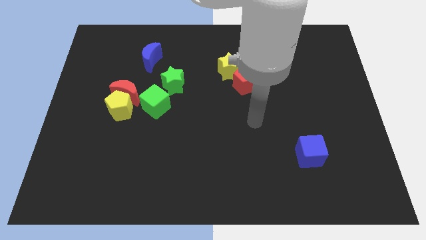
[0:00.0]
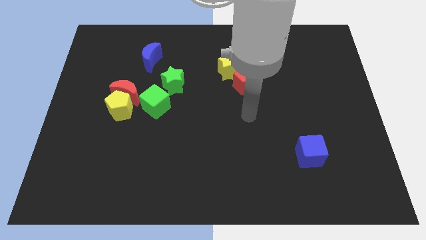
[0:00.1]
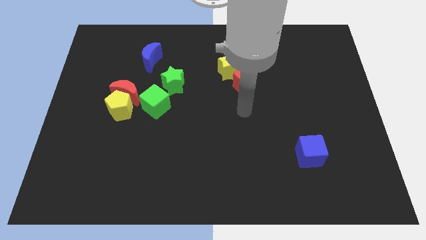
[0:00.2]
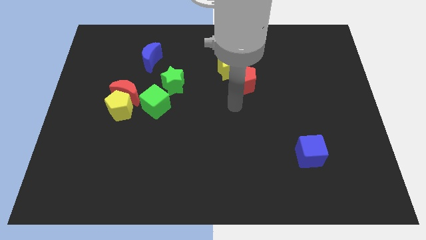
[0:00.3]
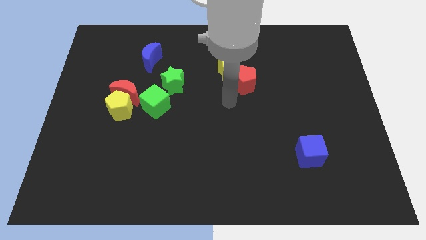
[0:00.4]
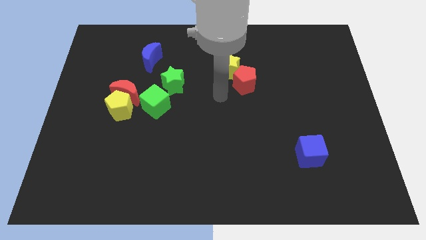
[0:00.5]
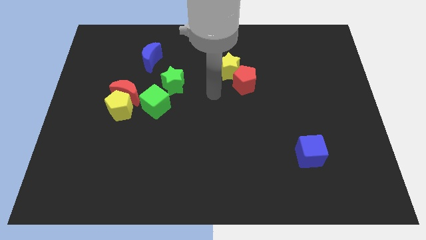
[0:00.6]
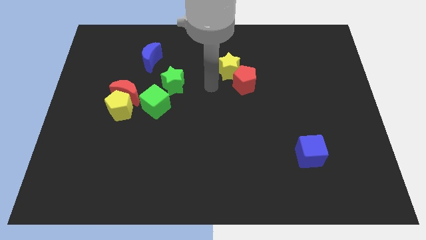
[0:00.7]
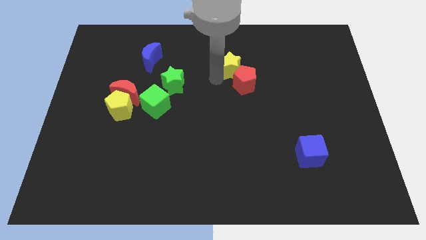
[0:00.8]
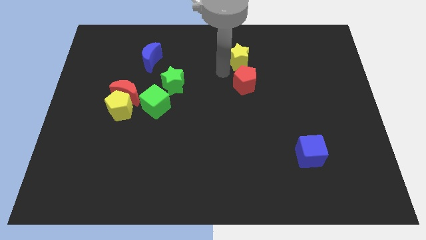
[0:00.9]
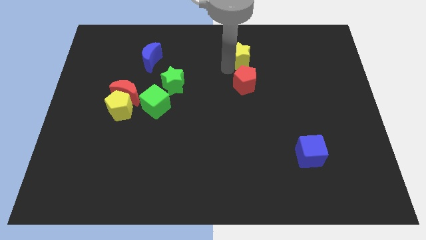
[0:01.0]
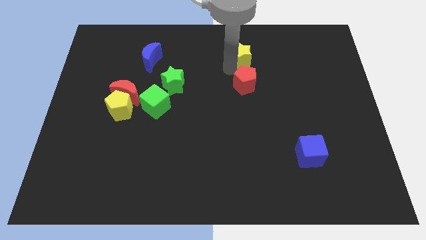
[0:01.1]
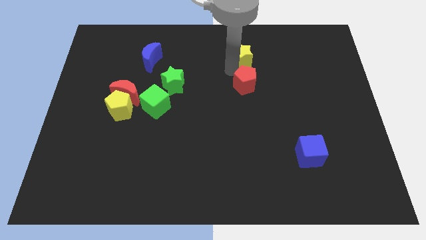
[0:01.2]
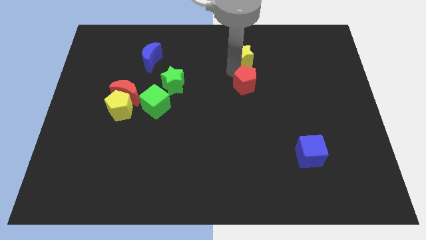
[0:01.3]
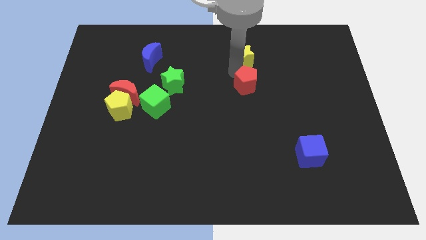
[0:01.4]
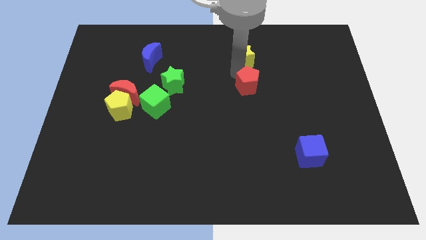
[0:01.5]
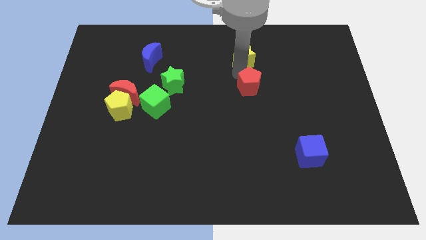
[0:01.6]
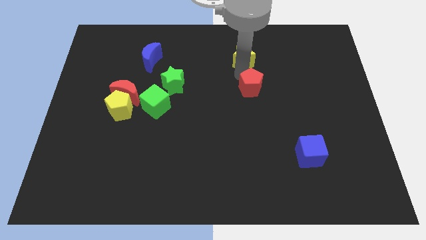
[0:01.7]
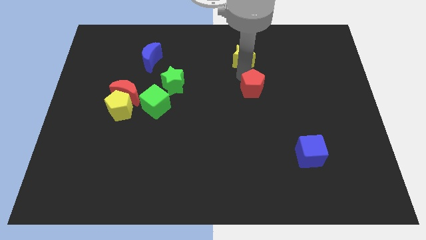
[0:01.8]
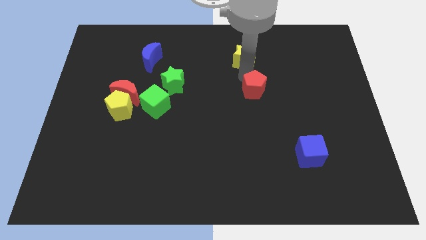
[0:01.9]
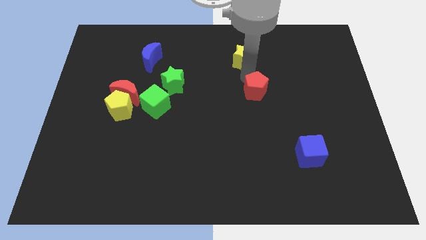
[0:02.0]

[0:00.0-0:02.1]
separate the red pentagon from the yellow star

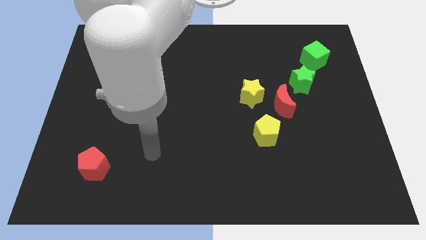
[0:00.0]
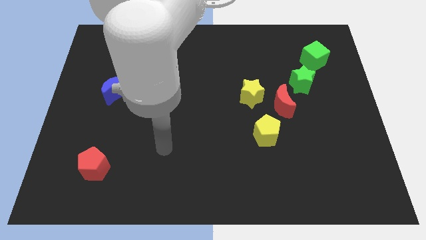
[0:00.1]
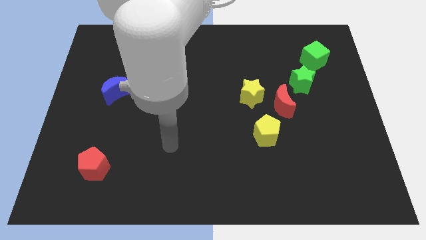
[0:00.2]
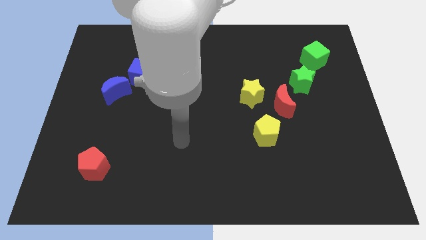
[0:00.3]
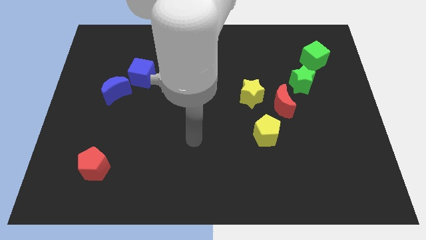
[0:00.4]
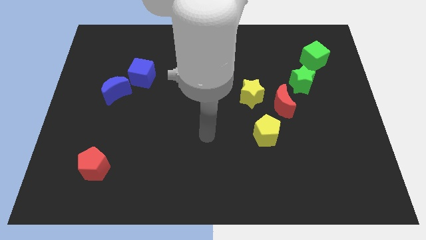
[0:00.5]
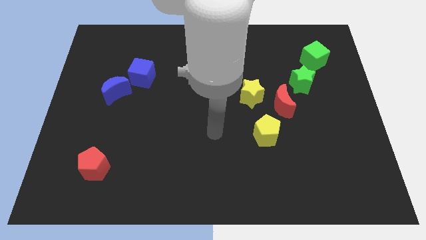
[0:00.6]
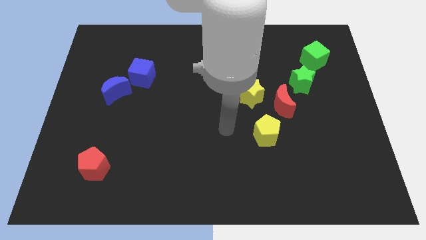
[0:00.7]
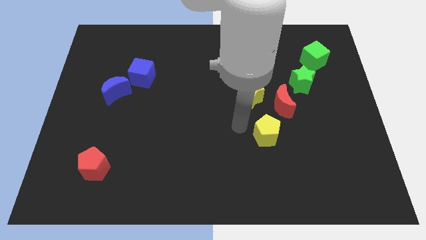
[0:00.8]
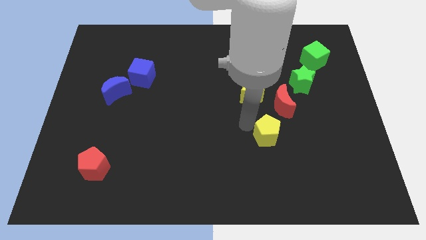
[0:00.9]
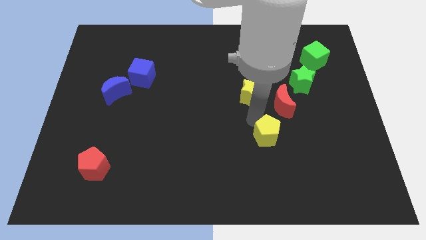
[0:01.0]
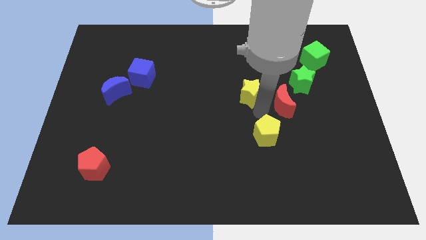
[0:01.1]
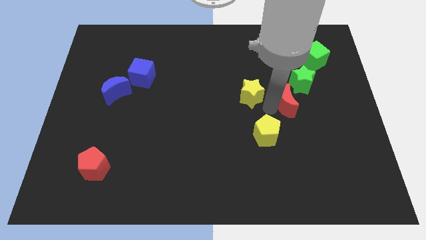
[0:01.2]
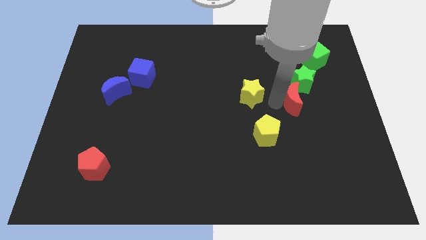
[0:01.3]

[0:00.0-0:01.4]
pull the yellow star apart from the red moon

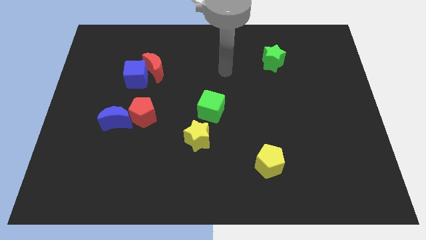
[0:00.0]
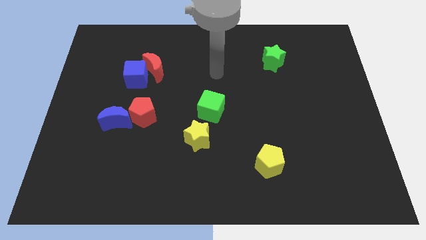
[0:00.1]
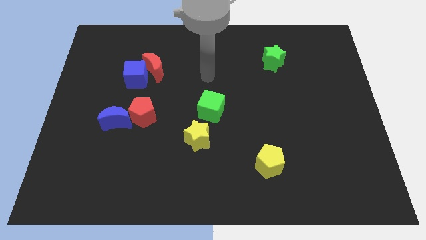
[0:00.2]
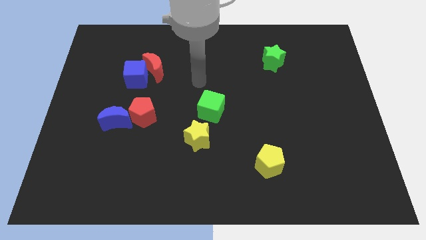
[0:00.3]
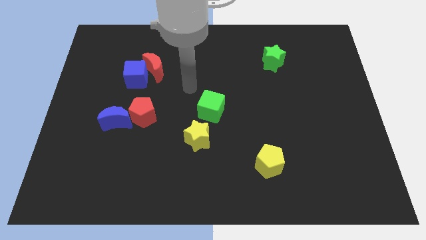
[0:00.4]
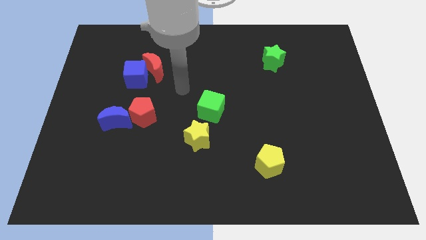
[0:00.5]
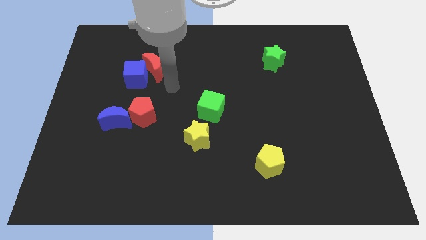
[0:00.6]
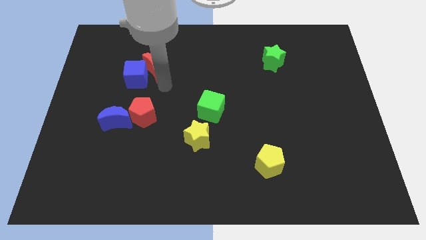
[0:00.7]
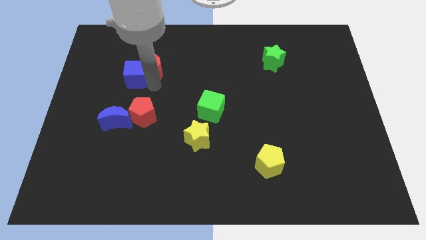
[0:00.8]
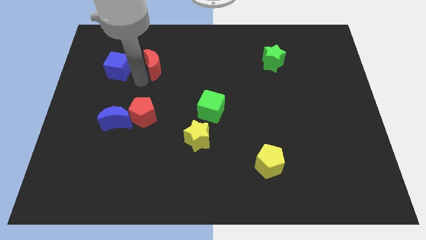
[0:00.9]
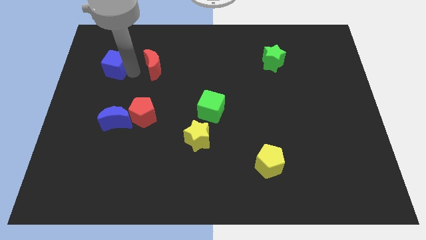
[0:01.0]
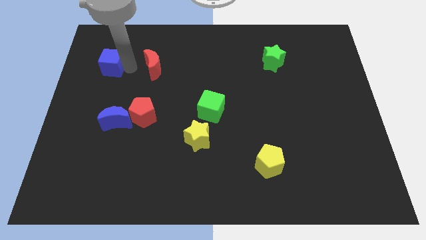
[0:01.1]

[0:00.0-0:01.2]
pull the red moon apart from the blue cube

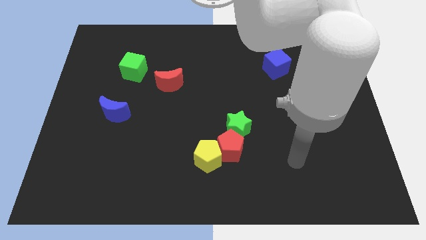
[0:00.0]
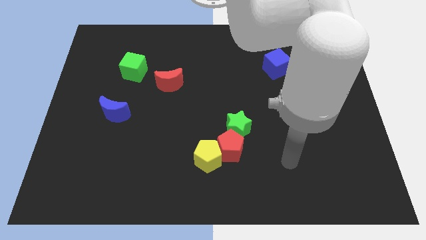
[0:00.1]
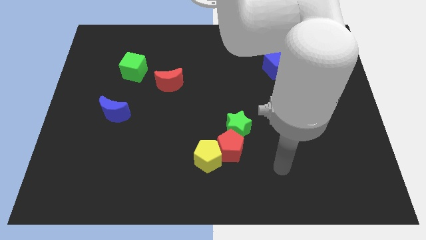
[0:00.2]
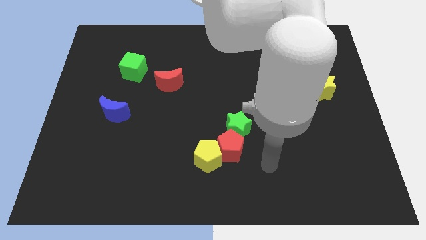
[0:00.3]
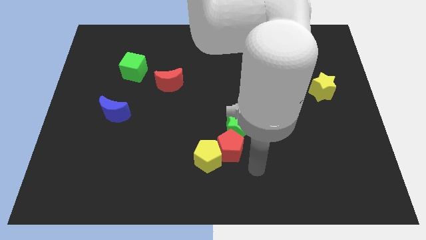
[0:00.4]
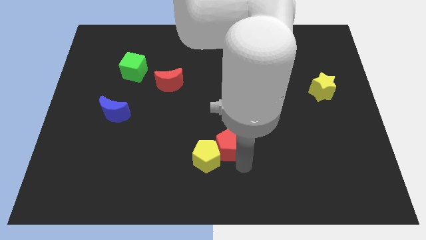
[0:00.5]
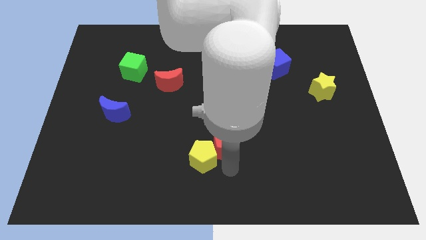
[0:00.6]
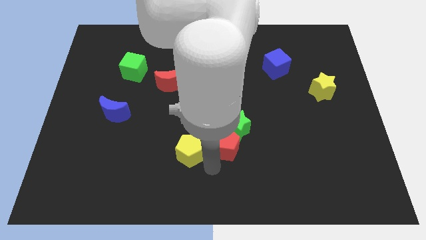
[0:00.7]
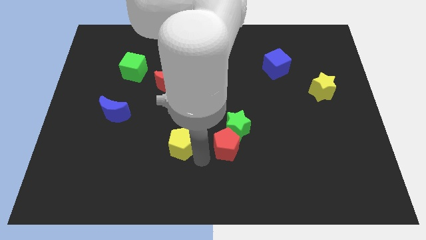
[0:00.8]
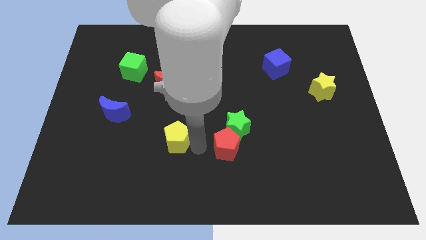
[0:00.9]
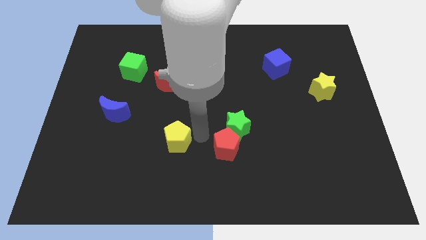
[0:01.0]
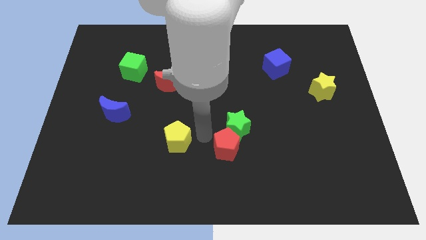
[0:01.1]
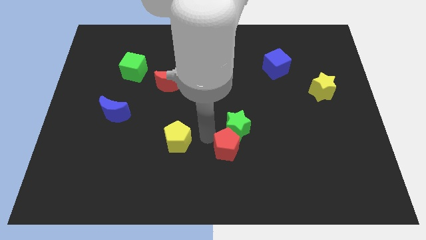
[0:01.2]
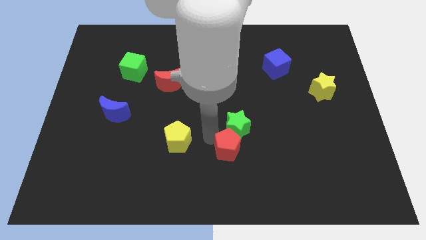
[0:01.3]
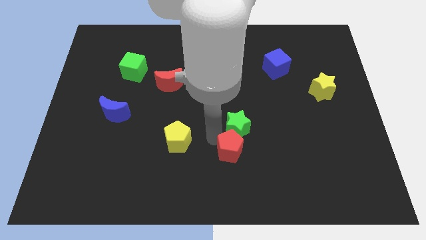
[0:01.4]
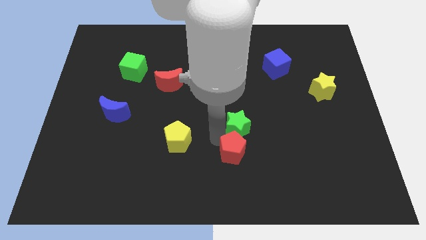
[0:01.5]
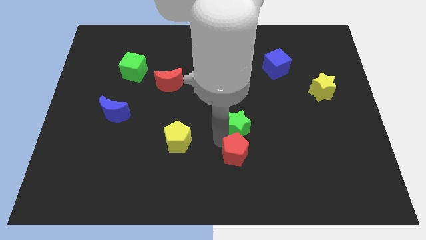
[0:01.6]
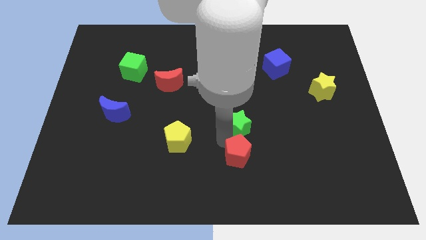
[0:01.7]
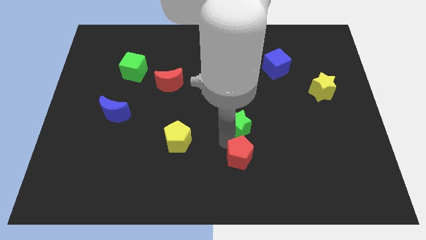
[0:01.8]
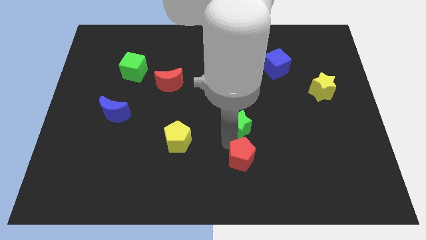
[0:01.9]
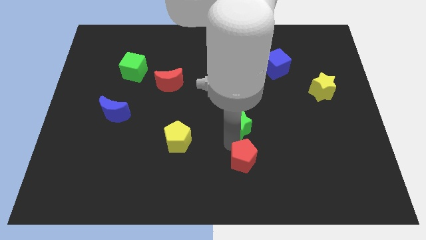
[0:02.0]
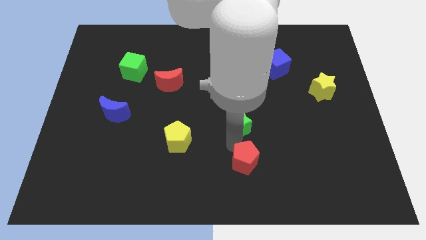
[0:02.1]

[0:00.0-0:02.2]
pull the red pentagon apart from the yellow pentagon and green star

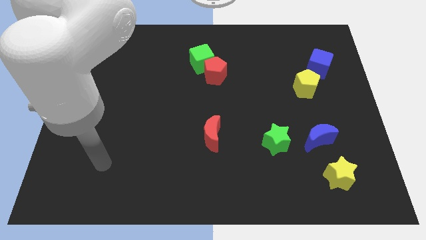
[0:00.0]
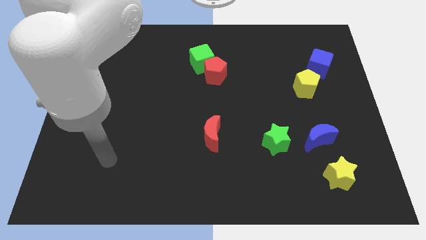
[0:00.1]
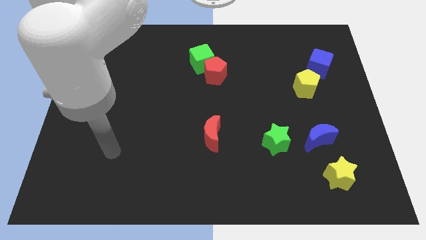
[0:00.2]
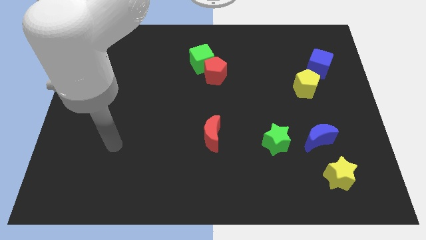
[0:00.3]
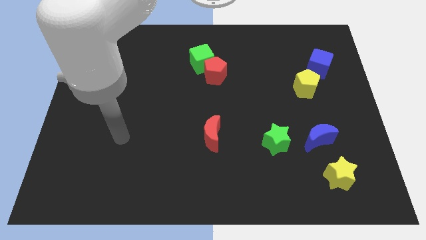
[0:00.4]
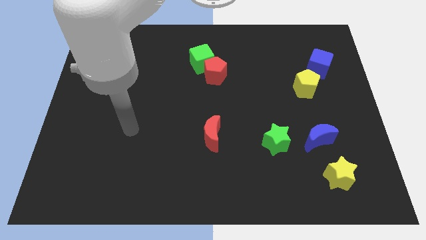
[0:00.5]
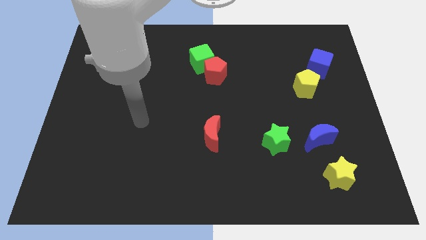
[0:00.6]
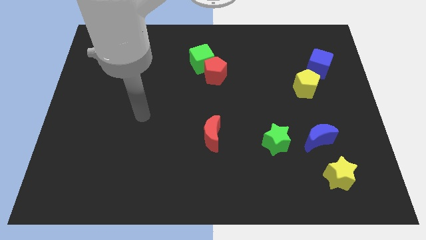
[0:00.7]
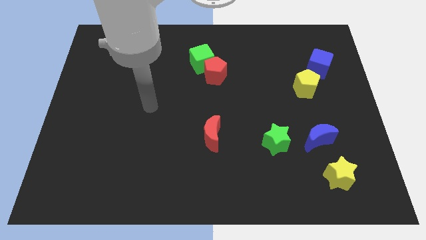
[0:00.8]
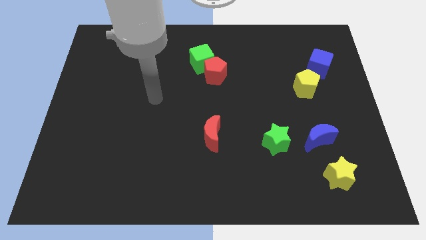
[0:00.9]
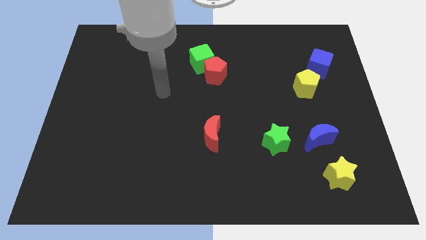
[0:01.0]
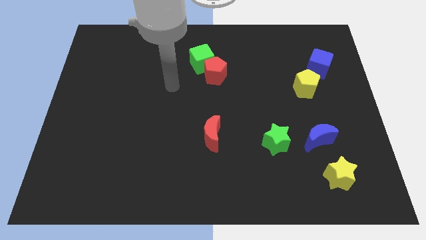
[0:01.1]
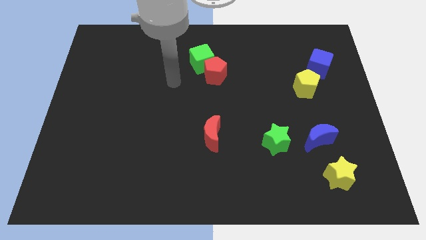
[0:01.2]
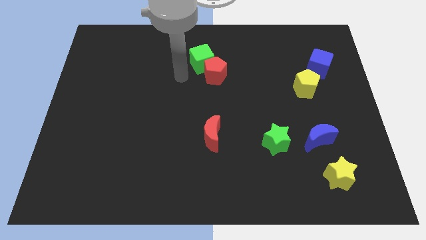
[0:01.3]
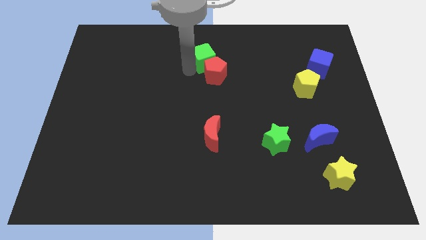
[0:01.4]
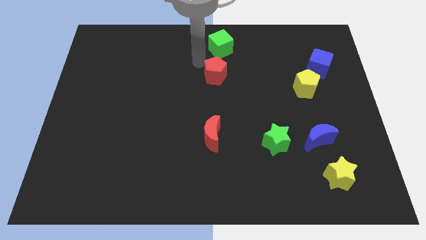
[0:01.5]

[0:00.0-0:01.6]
separate the red pentagon from the green cube

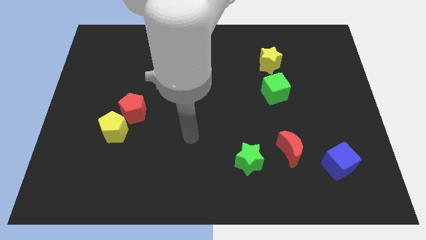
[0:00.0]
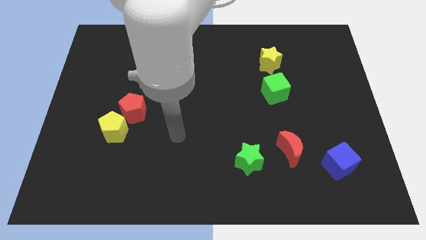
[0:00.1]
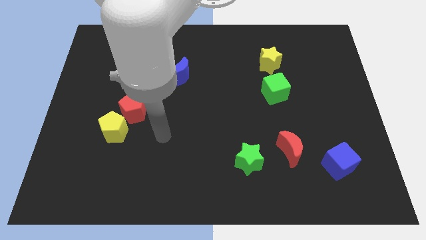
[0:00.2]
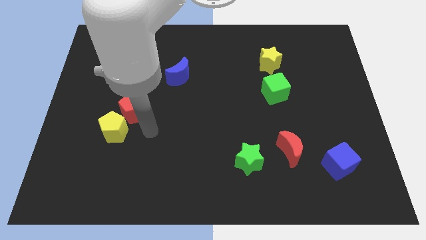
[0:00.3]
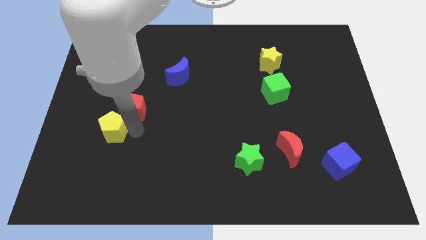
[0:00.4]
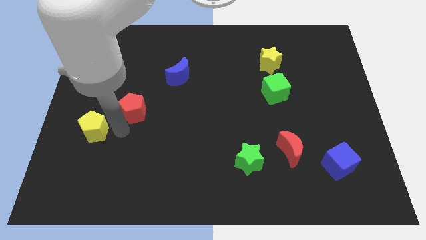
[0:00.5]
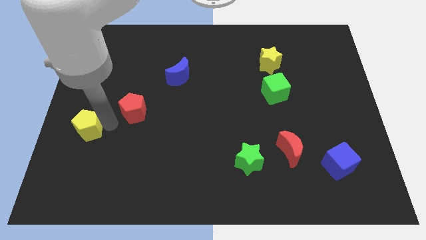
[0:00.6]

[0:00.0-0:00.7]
separate the red pentagon from the yellow pentagon
